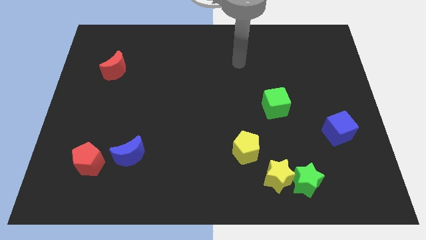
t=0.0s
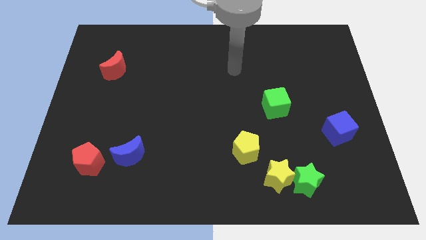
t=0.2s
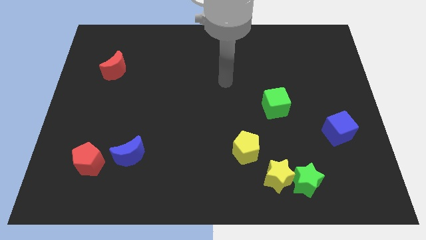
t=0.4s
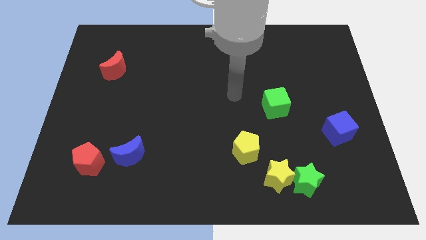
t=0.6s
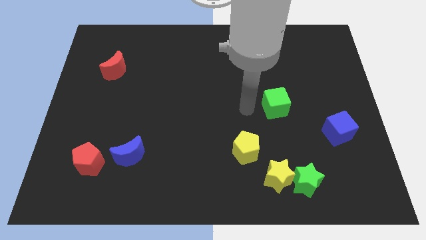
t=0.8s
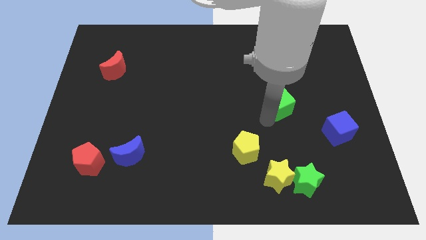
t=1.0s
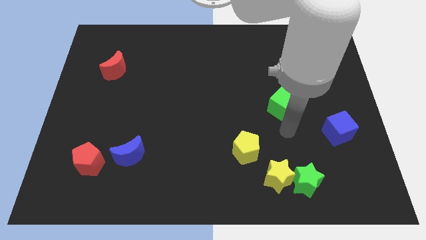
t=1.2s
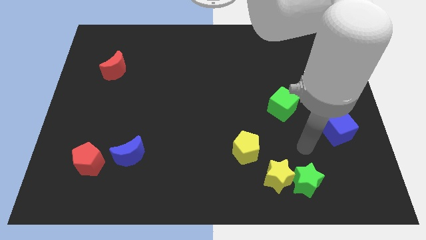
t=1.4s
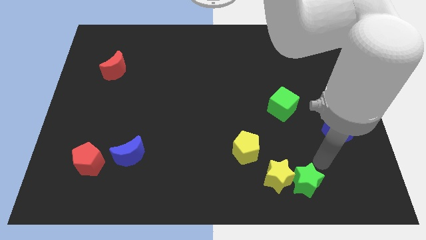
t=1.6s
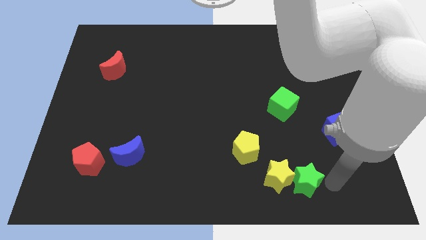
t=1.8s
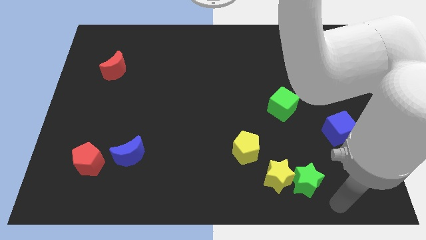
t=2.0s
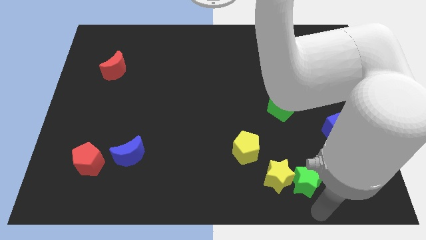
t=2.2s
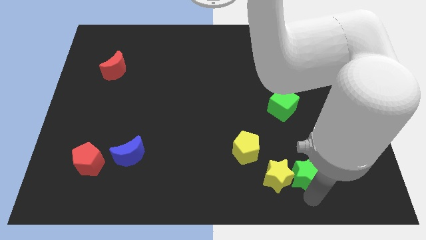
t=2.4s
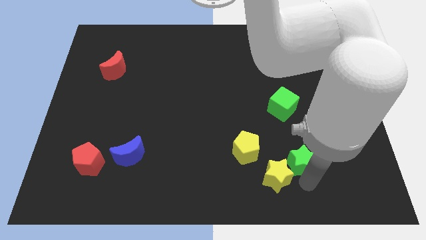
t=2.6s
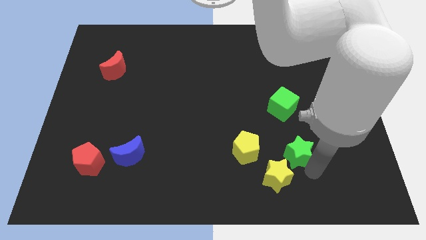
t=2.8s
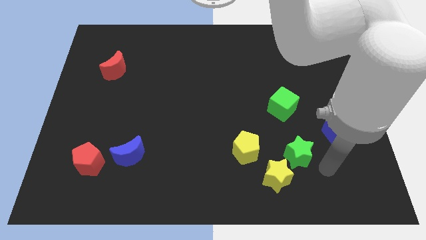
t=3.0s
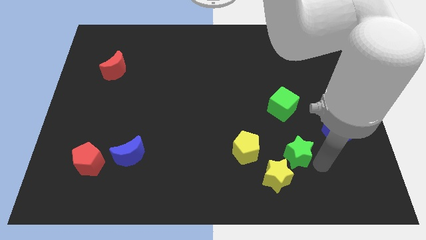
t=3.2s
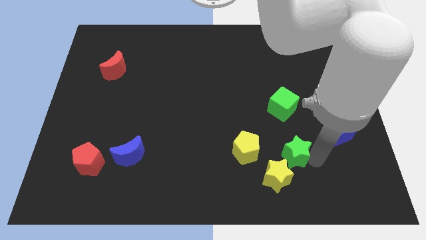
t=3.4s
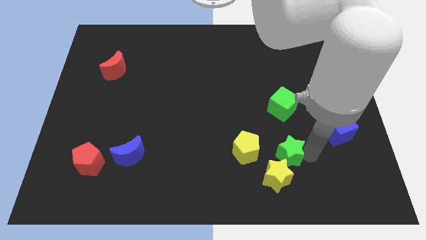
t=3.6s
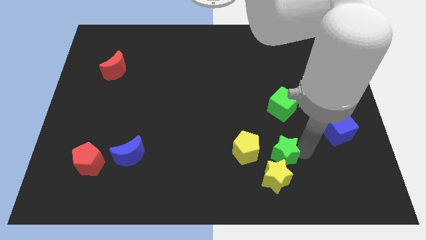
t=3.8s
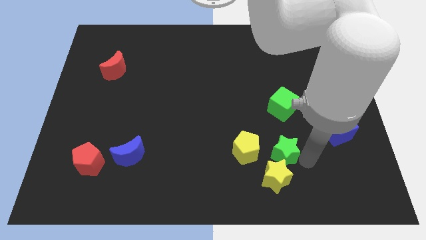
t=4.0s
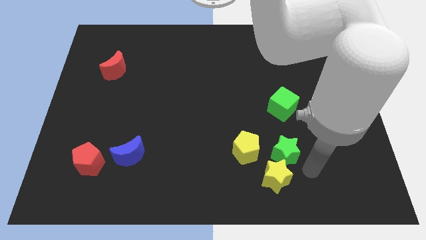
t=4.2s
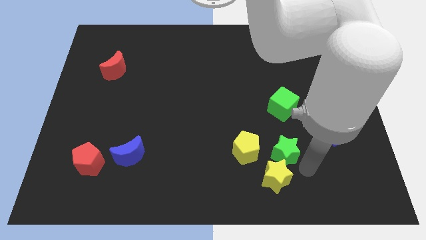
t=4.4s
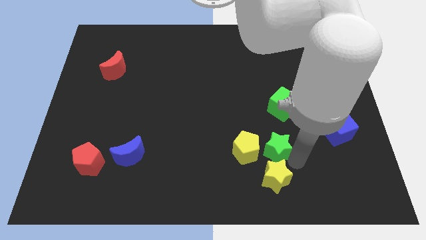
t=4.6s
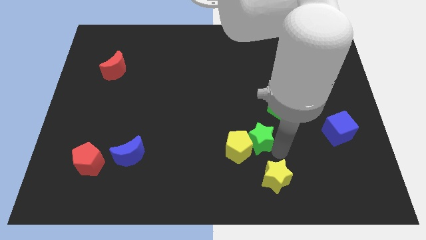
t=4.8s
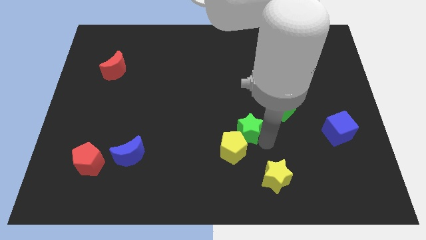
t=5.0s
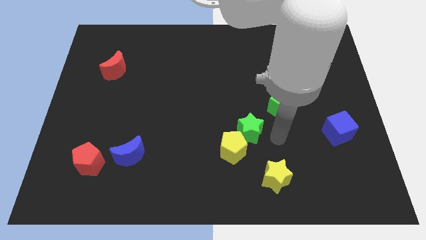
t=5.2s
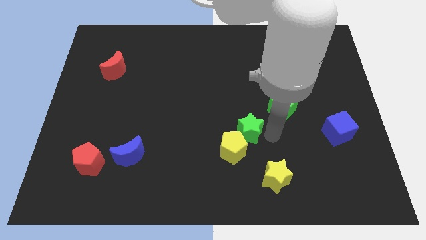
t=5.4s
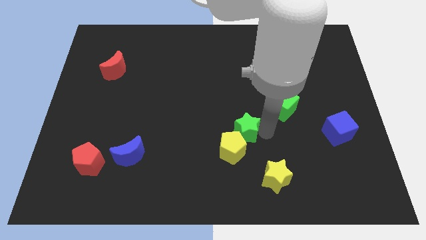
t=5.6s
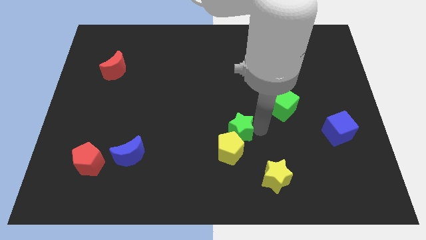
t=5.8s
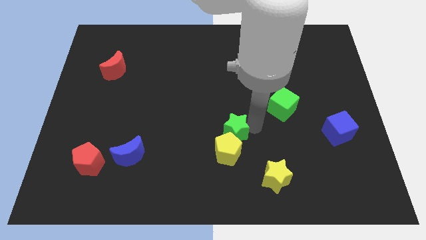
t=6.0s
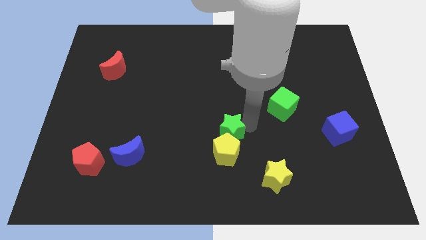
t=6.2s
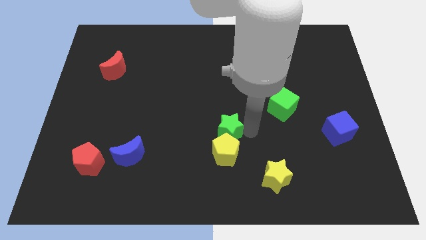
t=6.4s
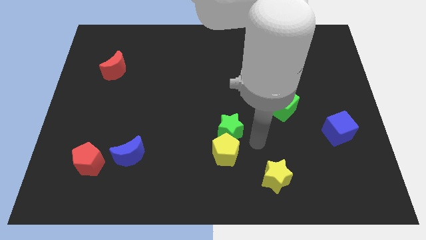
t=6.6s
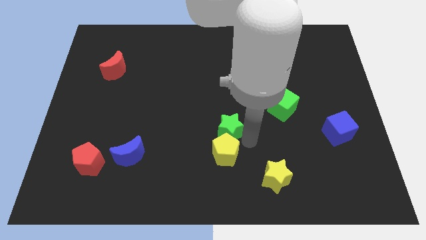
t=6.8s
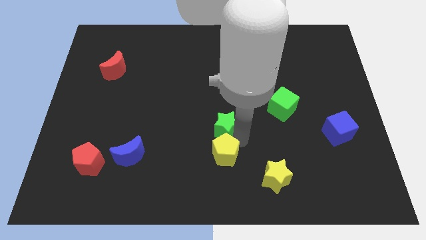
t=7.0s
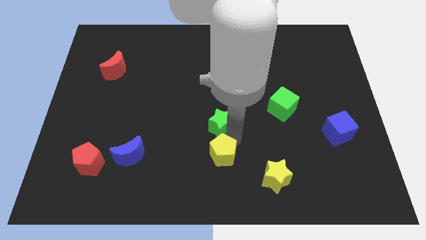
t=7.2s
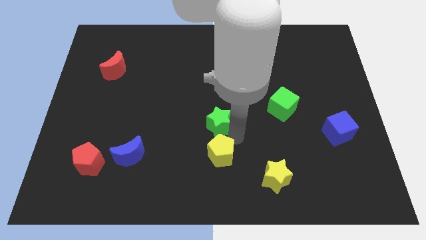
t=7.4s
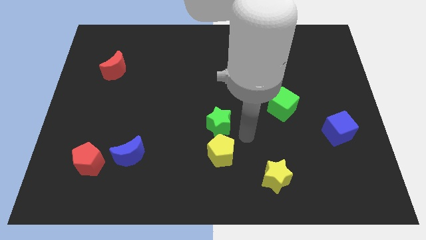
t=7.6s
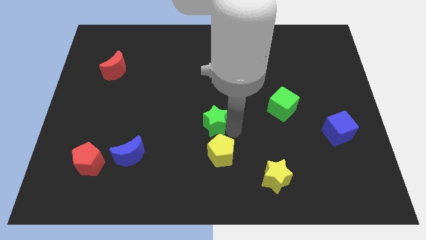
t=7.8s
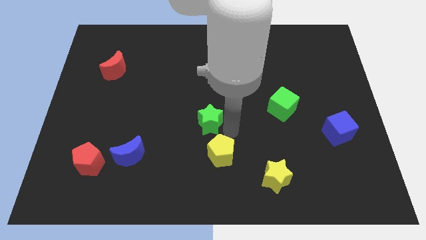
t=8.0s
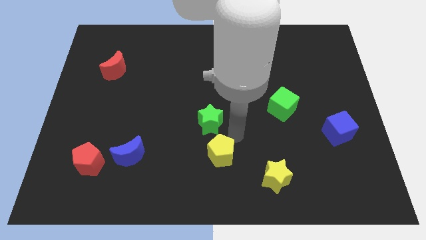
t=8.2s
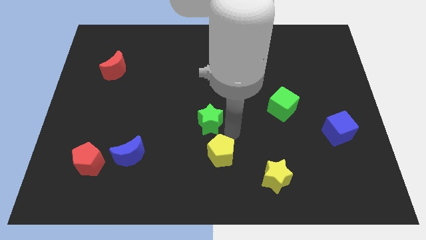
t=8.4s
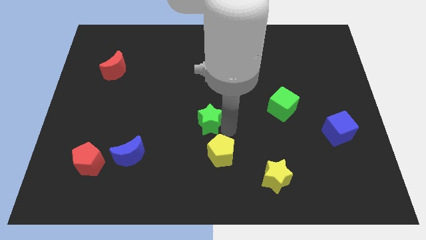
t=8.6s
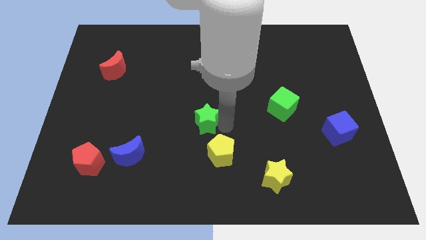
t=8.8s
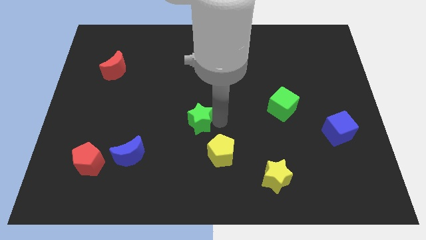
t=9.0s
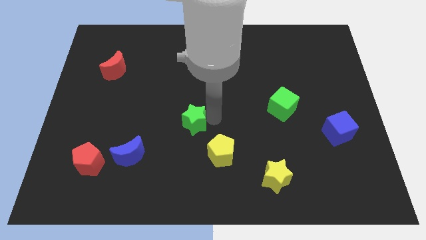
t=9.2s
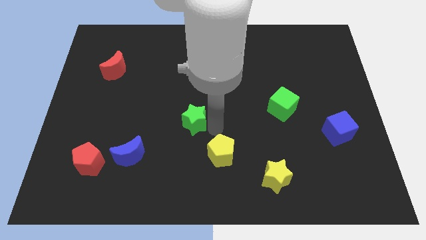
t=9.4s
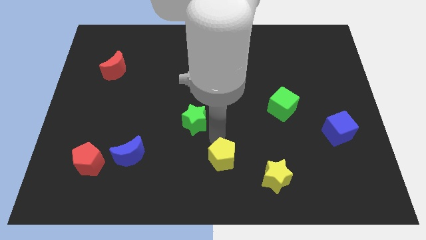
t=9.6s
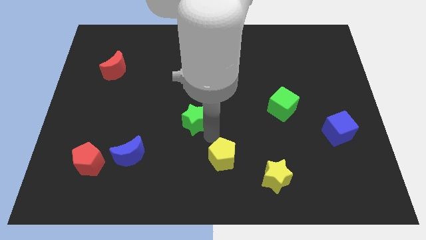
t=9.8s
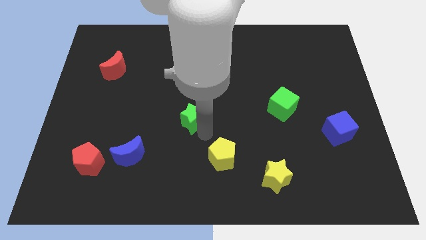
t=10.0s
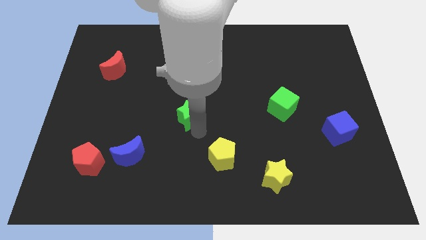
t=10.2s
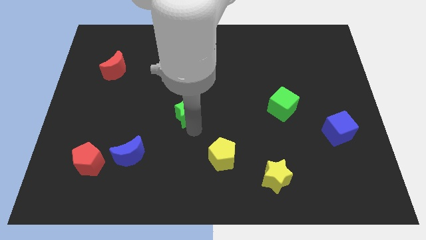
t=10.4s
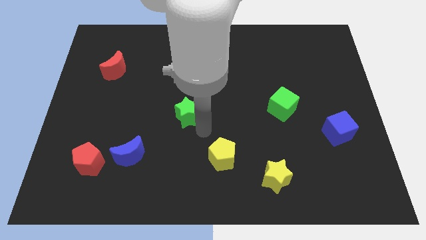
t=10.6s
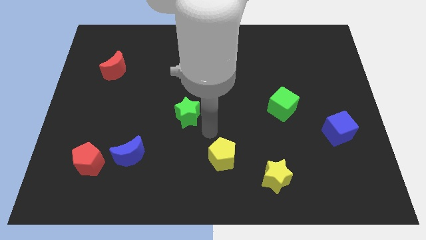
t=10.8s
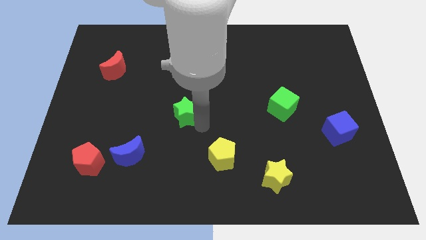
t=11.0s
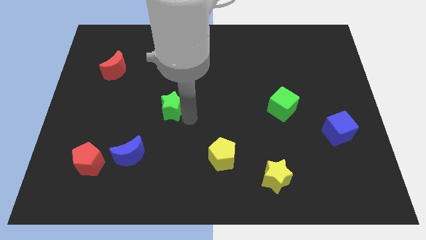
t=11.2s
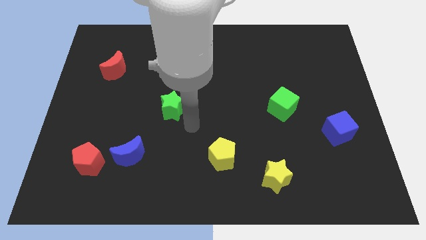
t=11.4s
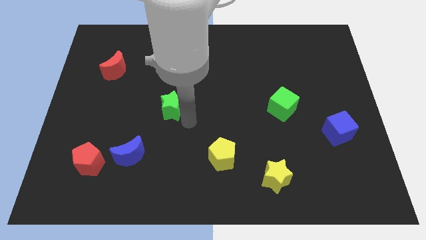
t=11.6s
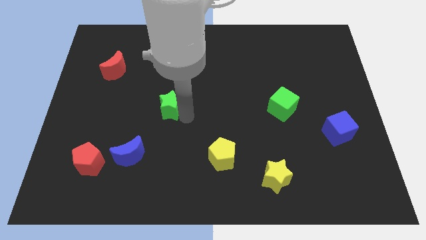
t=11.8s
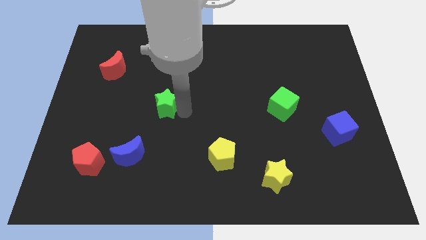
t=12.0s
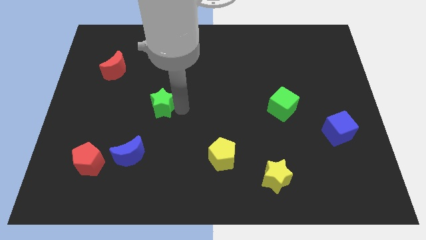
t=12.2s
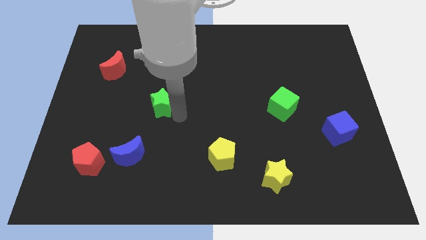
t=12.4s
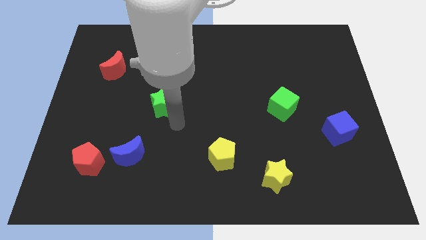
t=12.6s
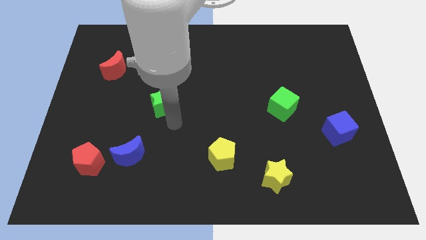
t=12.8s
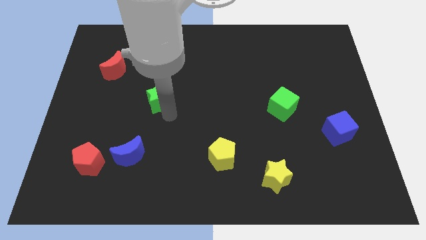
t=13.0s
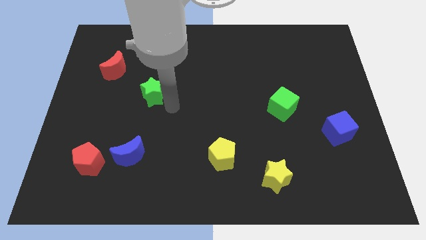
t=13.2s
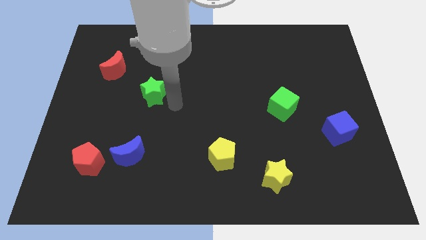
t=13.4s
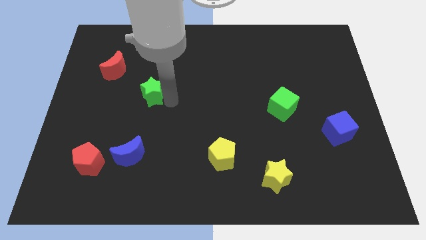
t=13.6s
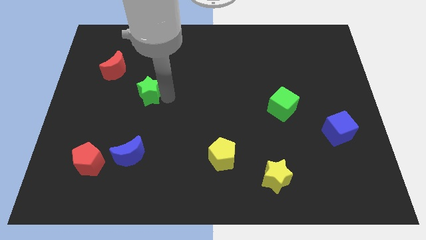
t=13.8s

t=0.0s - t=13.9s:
move the green star to the bottom right side of the red moon
